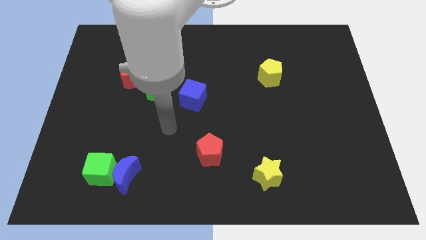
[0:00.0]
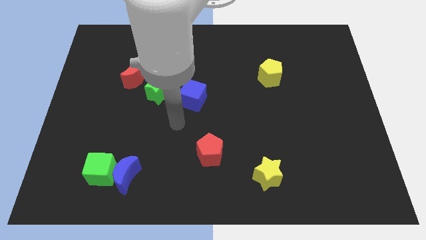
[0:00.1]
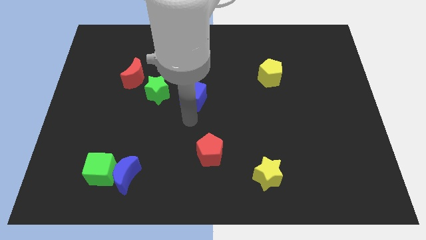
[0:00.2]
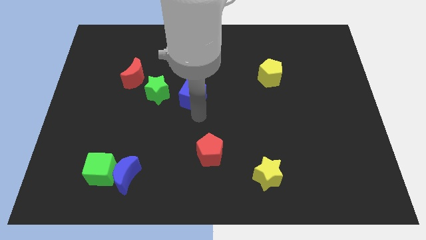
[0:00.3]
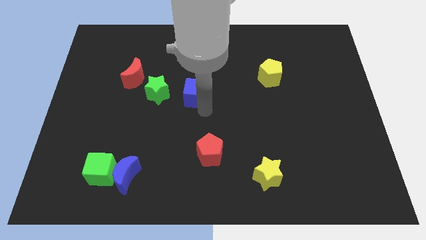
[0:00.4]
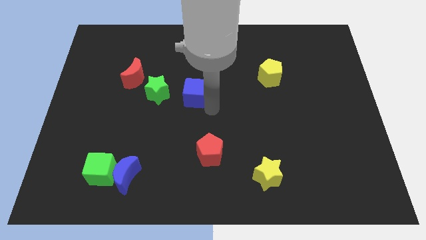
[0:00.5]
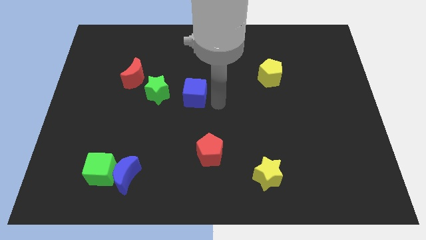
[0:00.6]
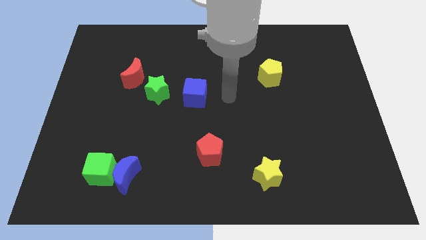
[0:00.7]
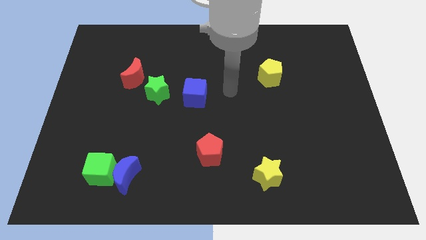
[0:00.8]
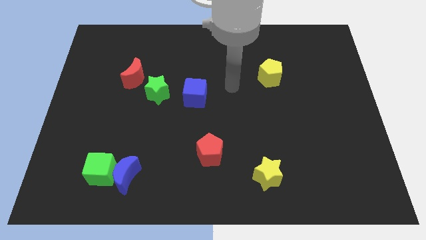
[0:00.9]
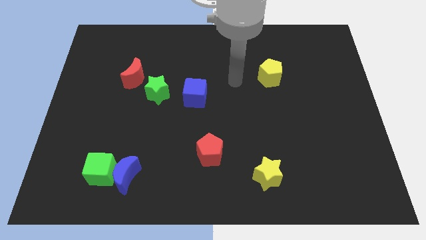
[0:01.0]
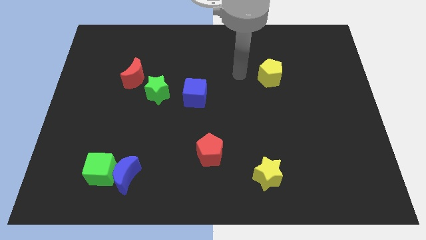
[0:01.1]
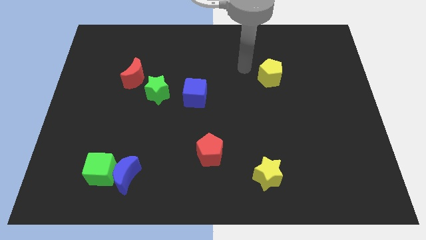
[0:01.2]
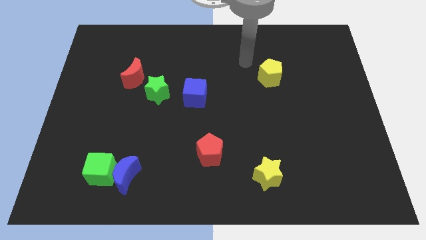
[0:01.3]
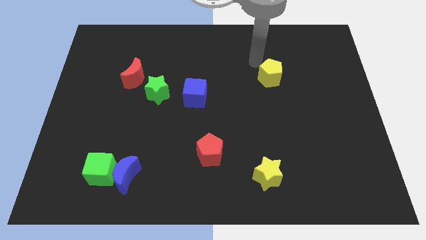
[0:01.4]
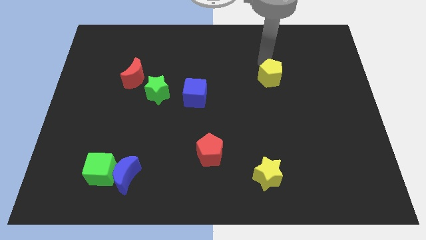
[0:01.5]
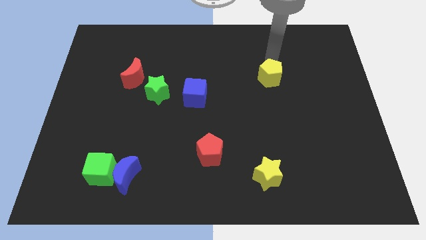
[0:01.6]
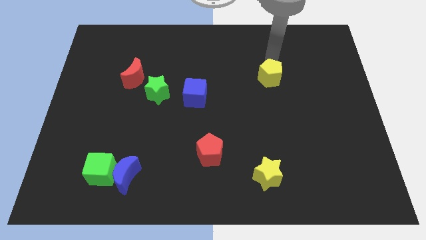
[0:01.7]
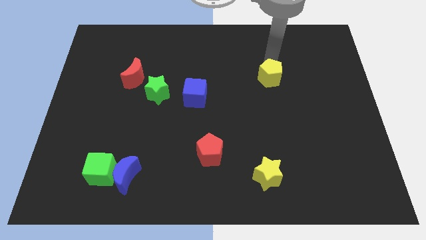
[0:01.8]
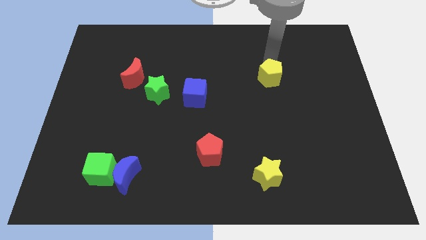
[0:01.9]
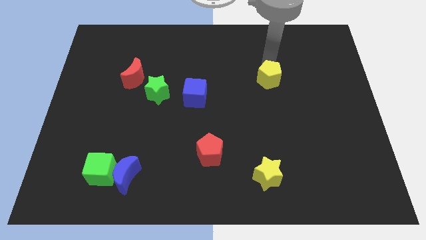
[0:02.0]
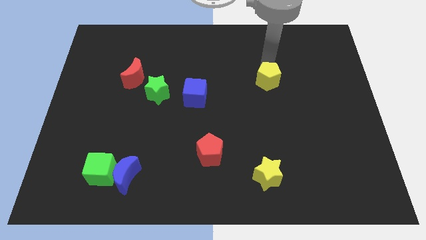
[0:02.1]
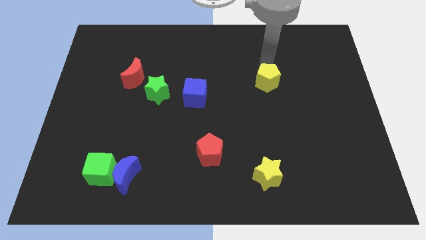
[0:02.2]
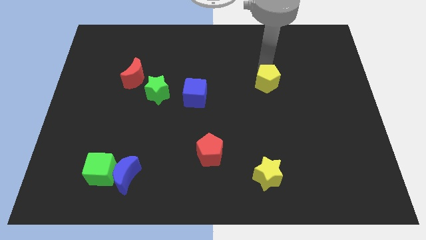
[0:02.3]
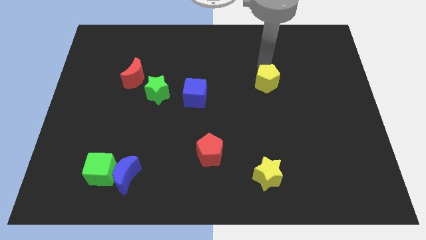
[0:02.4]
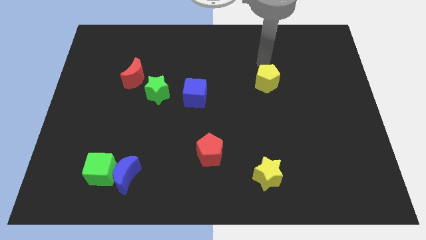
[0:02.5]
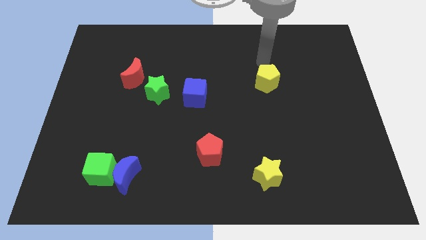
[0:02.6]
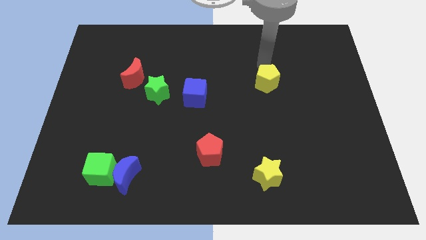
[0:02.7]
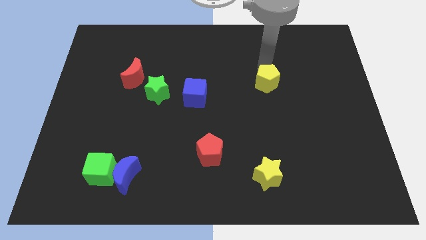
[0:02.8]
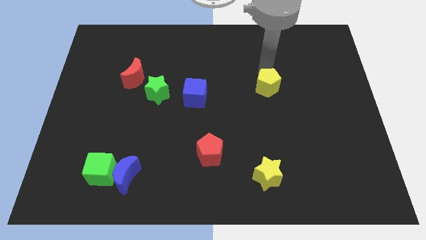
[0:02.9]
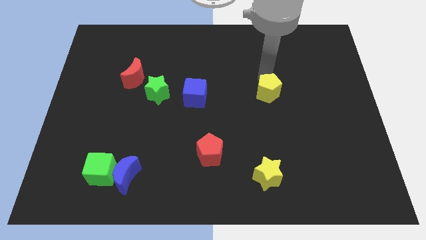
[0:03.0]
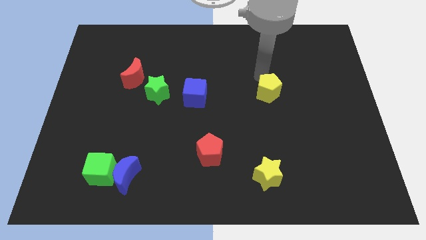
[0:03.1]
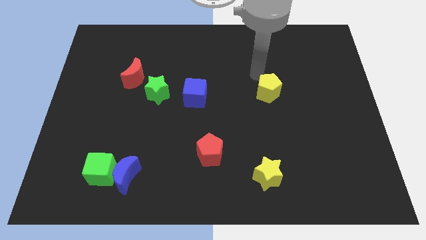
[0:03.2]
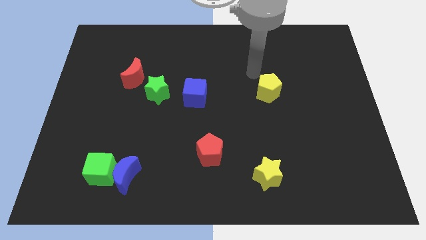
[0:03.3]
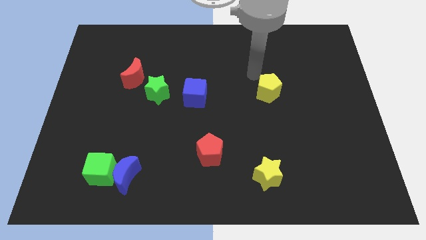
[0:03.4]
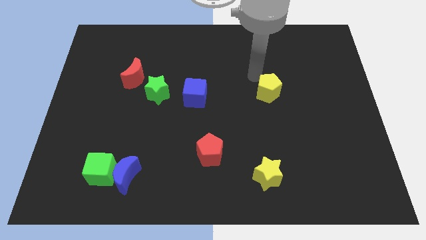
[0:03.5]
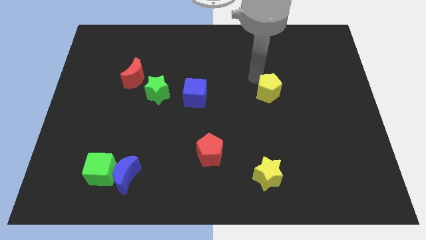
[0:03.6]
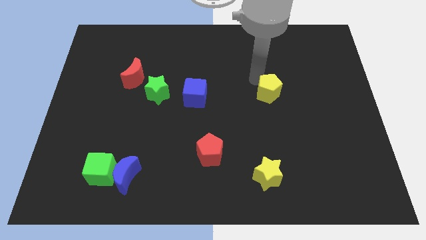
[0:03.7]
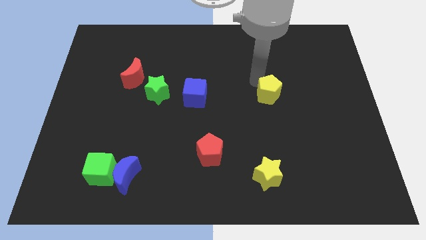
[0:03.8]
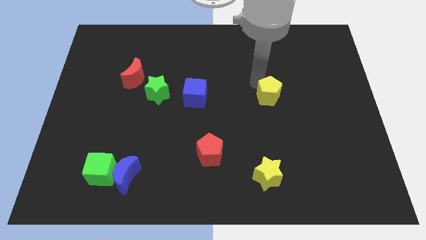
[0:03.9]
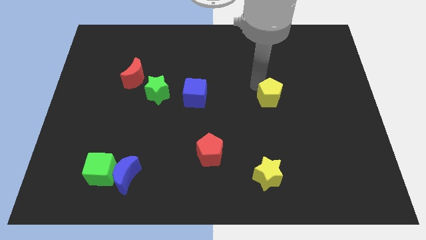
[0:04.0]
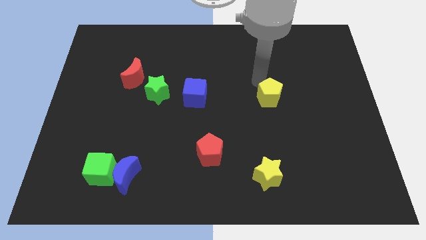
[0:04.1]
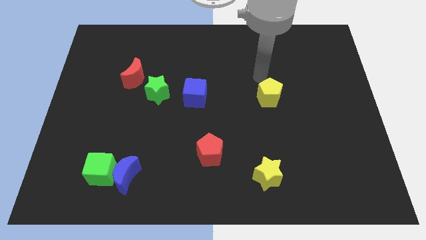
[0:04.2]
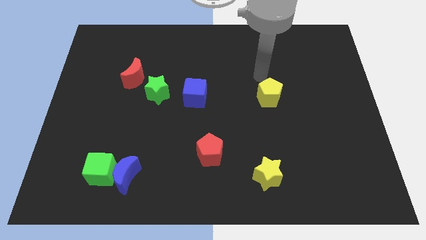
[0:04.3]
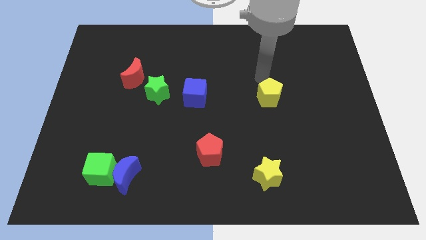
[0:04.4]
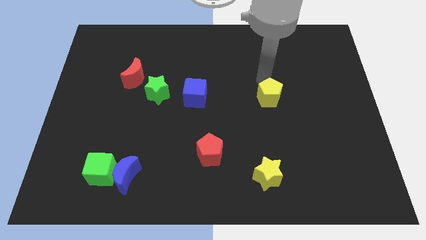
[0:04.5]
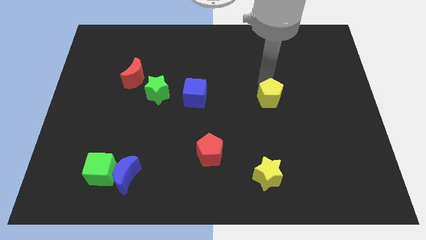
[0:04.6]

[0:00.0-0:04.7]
slightly push the yellow pentagon downwards

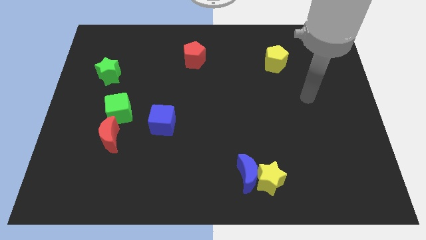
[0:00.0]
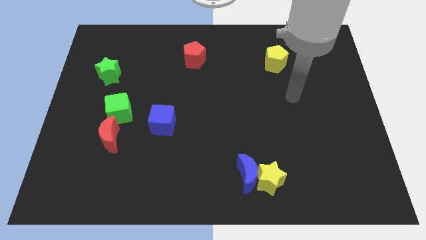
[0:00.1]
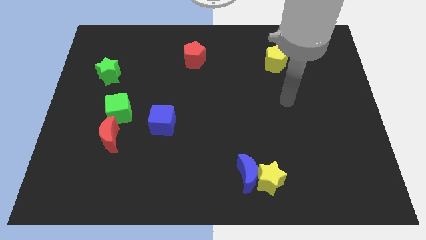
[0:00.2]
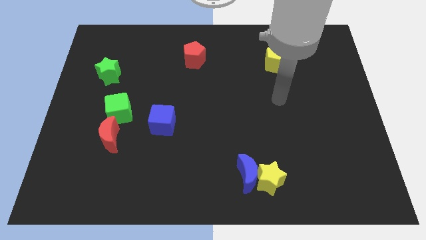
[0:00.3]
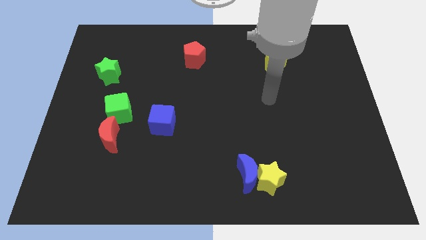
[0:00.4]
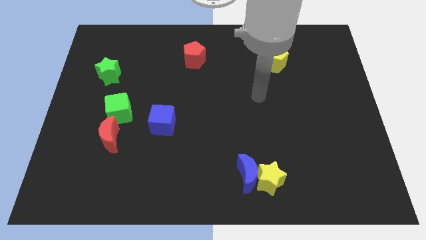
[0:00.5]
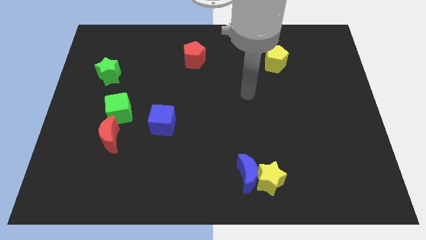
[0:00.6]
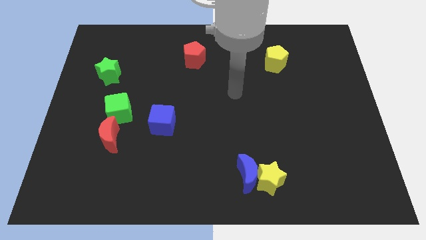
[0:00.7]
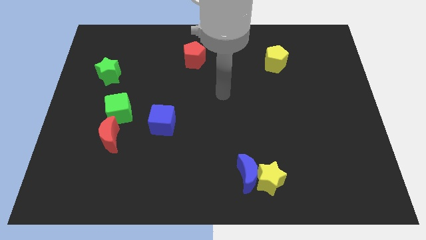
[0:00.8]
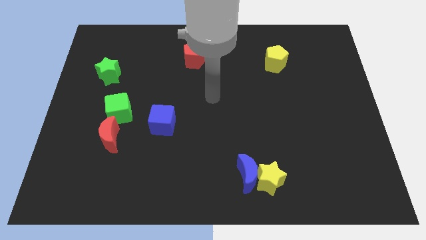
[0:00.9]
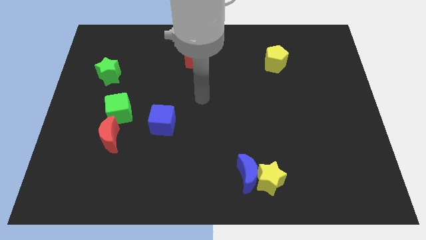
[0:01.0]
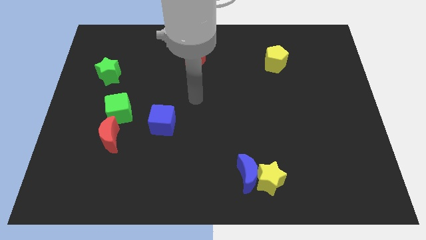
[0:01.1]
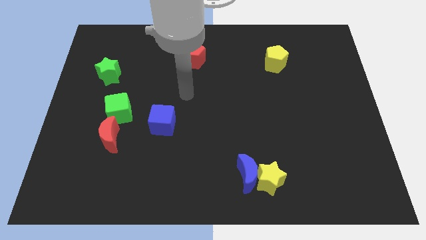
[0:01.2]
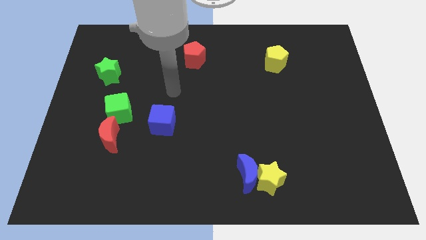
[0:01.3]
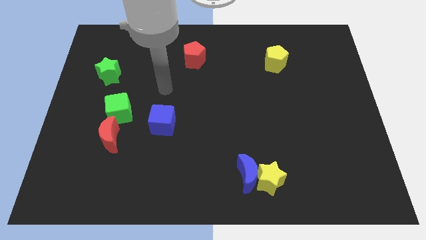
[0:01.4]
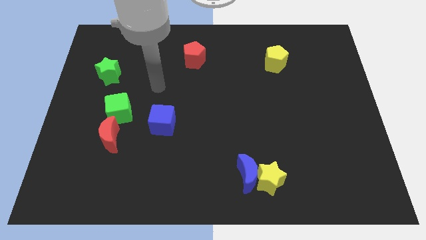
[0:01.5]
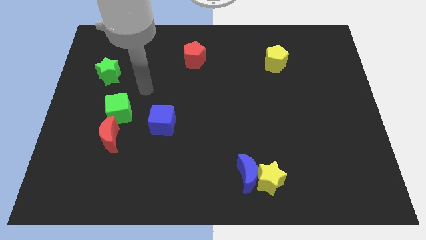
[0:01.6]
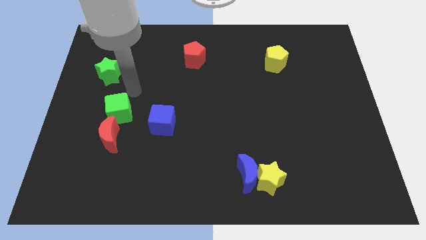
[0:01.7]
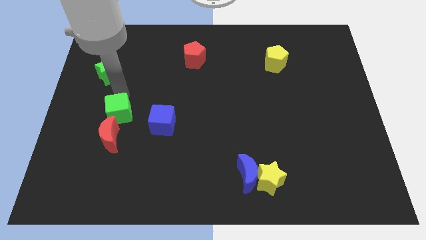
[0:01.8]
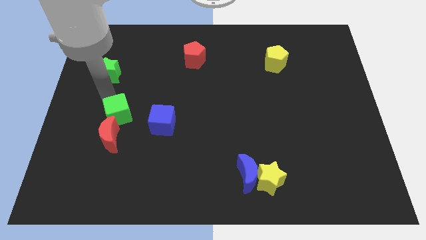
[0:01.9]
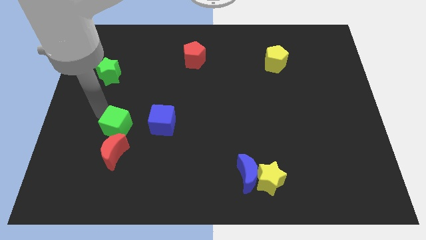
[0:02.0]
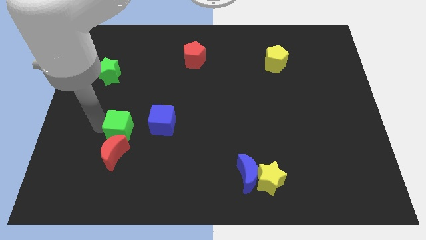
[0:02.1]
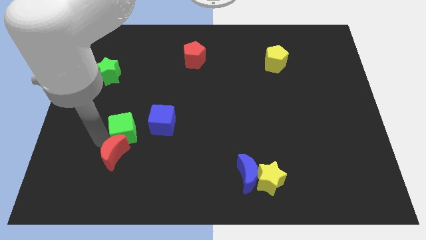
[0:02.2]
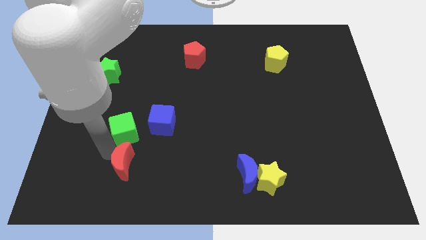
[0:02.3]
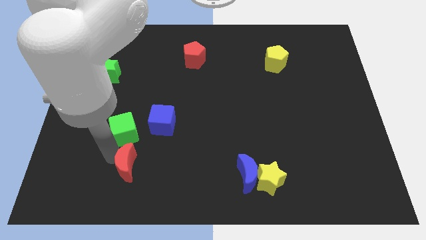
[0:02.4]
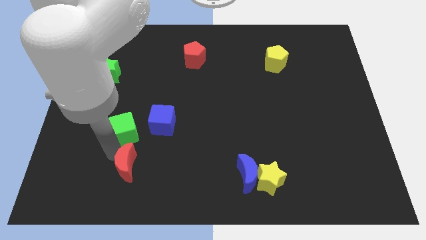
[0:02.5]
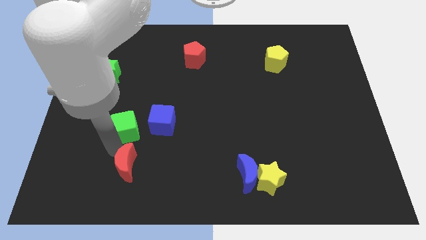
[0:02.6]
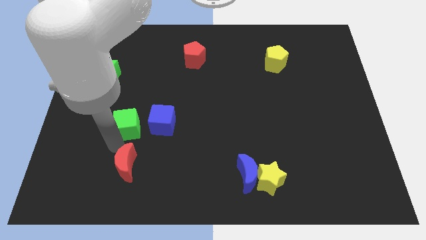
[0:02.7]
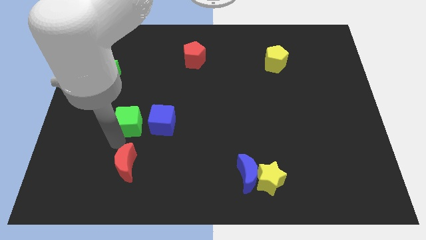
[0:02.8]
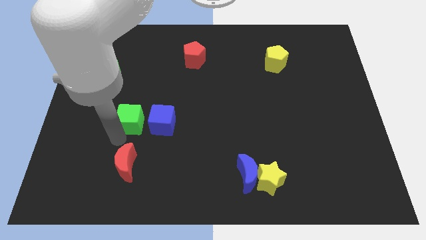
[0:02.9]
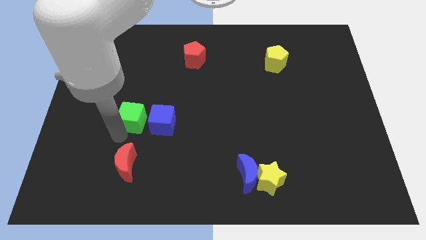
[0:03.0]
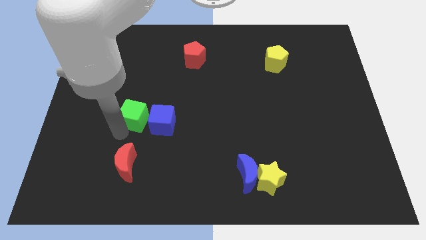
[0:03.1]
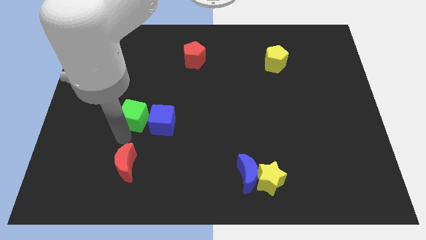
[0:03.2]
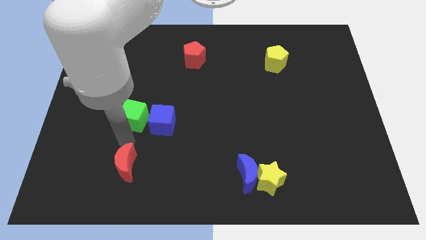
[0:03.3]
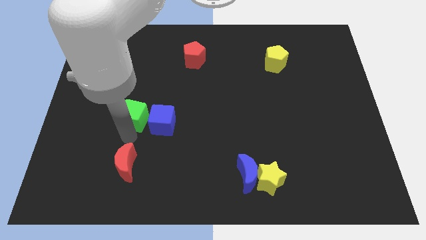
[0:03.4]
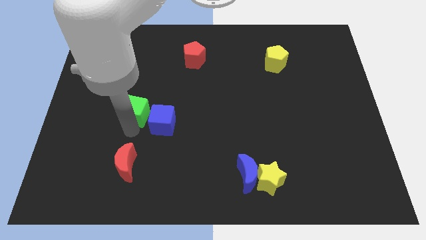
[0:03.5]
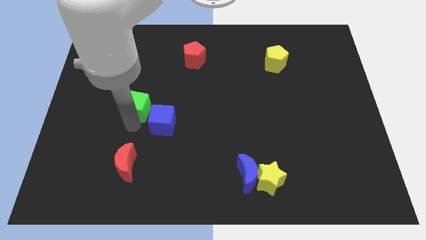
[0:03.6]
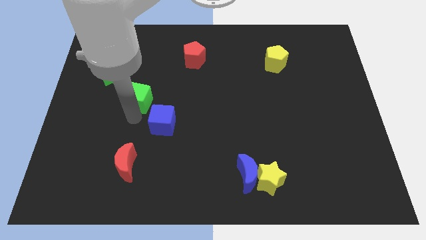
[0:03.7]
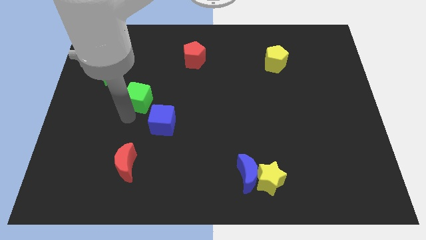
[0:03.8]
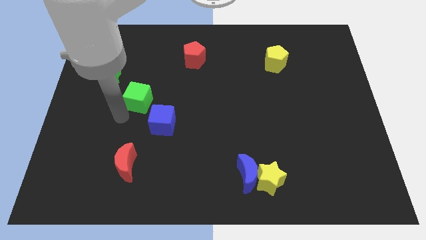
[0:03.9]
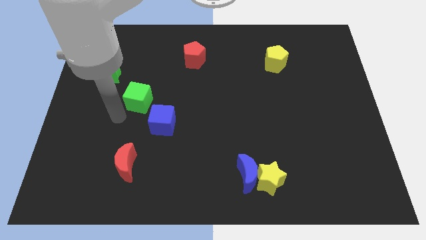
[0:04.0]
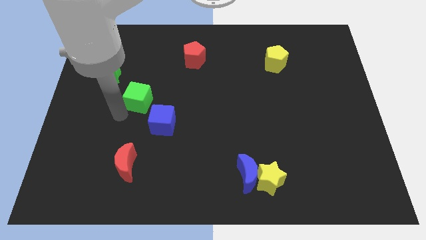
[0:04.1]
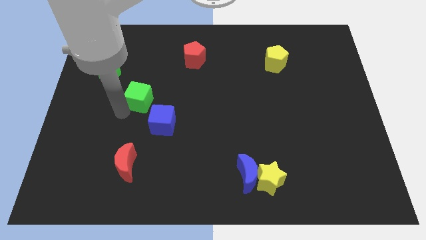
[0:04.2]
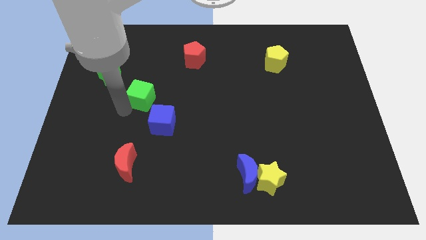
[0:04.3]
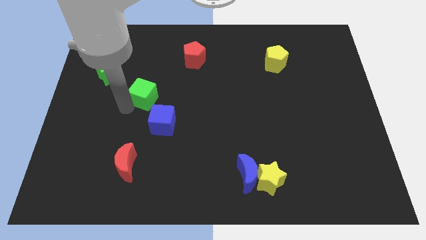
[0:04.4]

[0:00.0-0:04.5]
push the green cube slightly up and to the right
